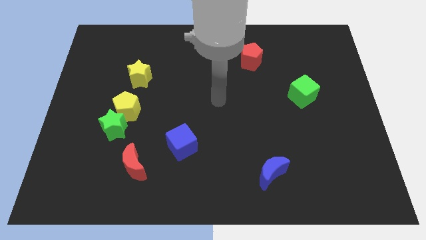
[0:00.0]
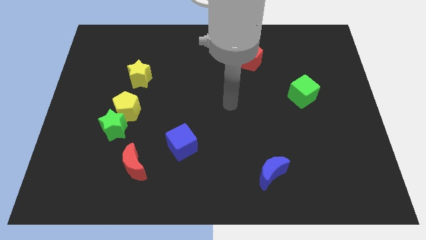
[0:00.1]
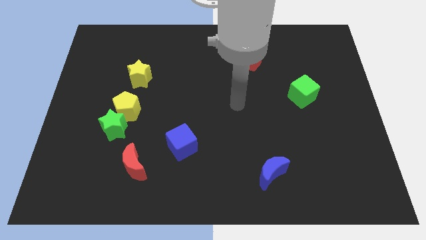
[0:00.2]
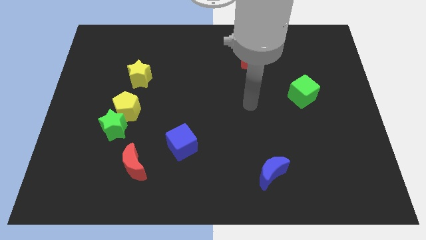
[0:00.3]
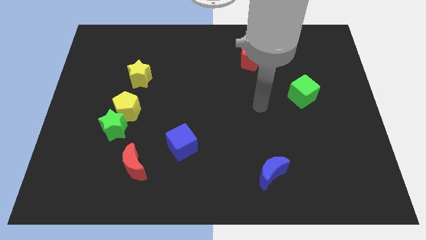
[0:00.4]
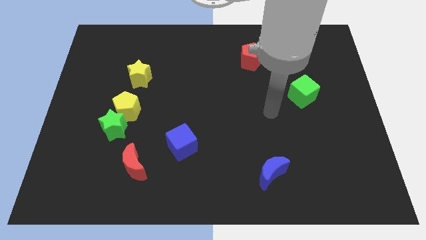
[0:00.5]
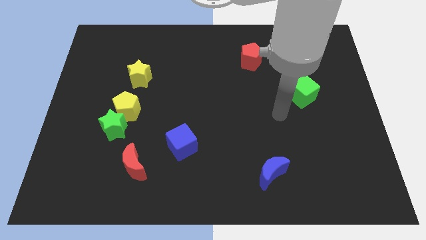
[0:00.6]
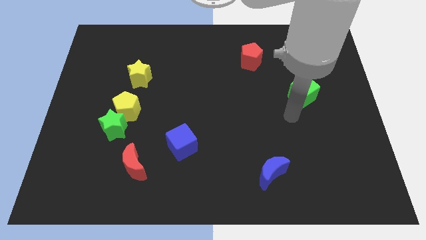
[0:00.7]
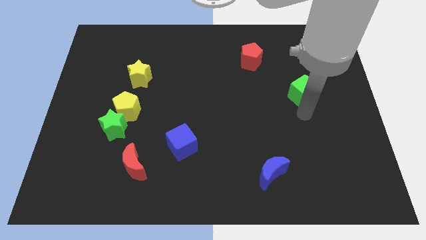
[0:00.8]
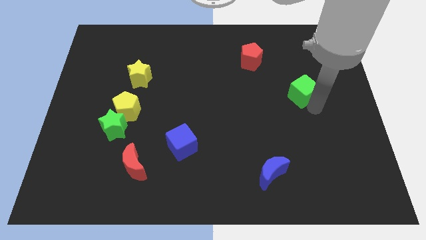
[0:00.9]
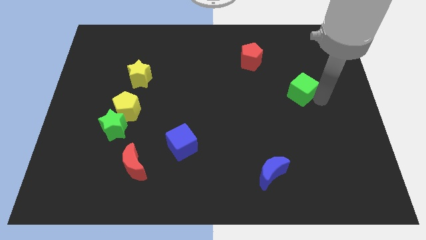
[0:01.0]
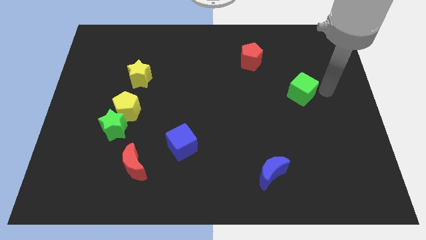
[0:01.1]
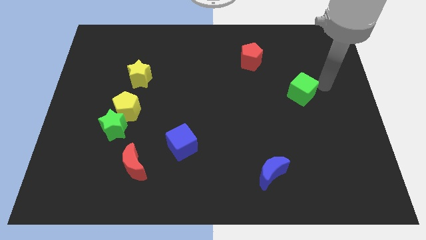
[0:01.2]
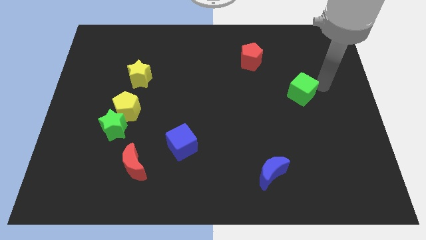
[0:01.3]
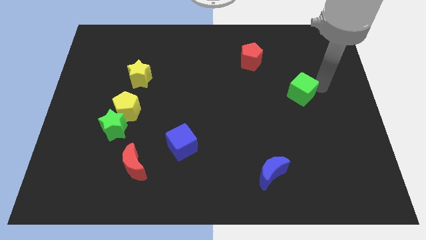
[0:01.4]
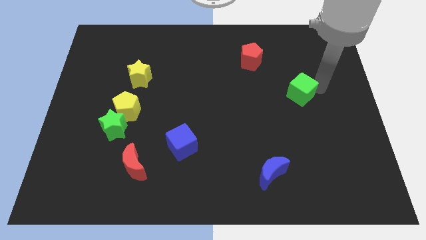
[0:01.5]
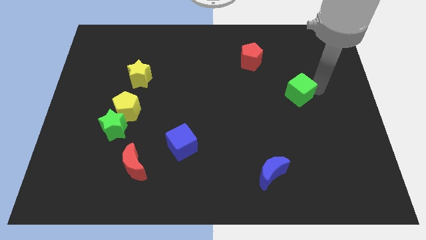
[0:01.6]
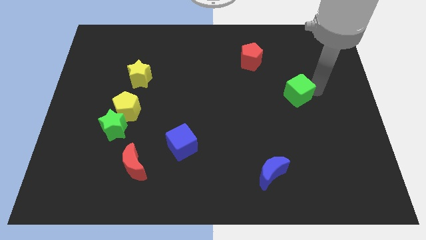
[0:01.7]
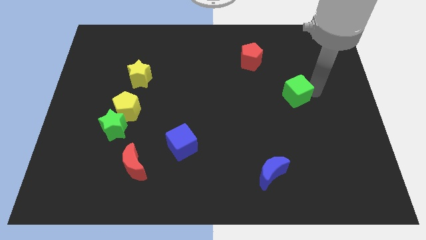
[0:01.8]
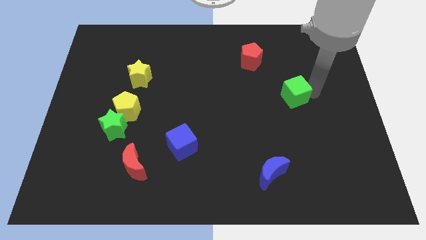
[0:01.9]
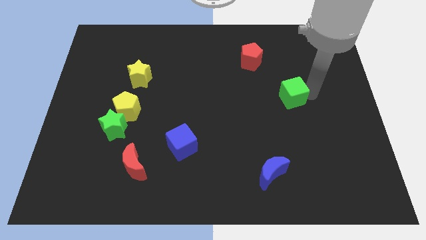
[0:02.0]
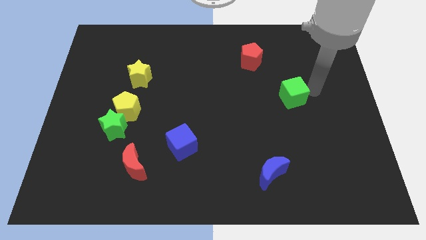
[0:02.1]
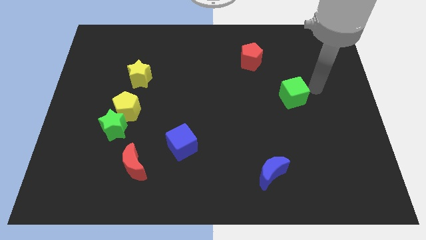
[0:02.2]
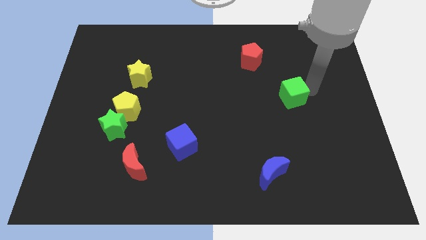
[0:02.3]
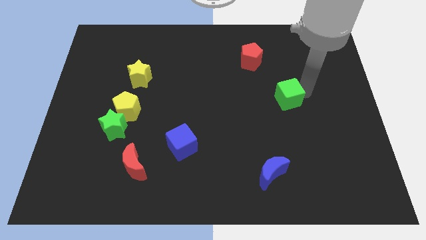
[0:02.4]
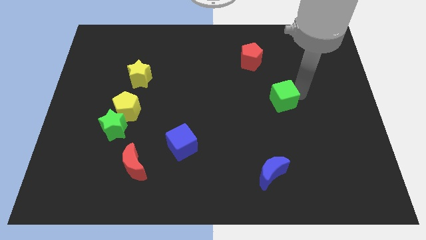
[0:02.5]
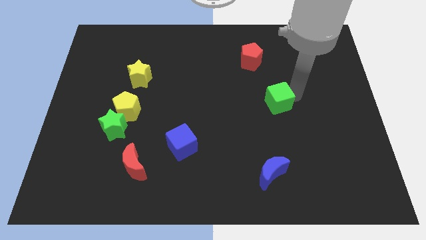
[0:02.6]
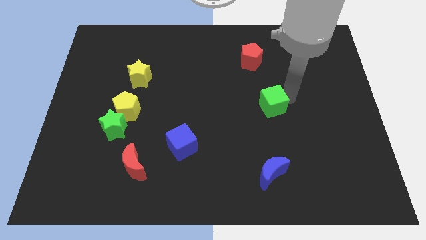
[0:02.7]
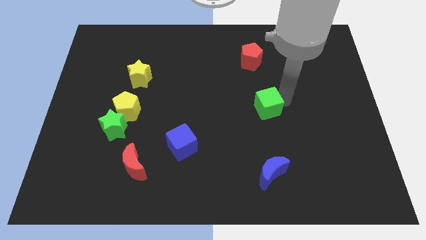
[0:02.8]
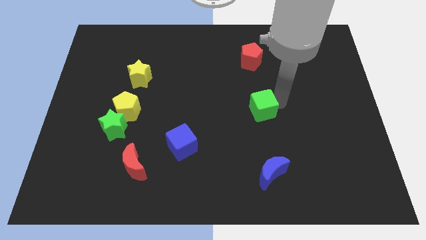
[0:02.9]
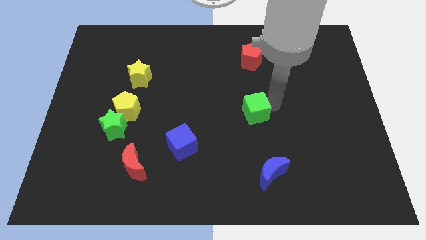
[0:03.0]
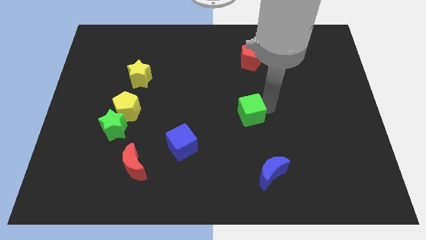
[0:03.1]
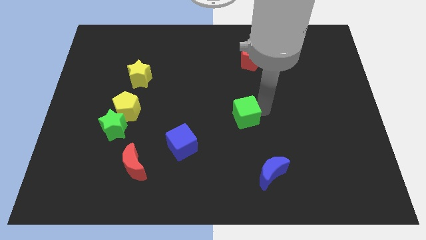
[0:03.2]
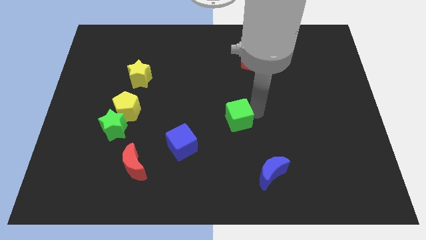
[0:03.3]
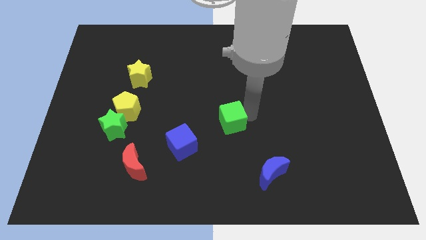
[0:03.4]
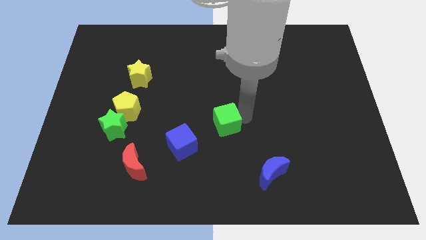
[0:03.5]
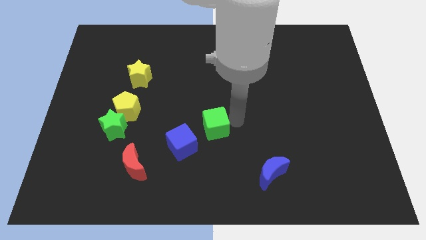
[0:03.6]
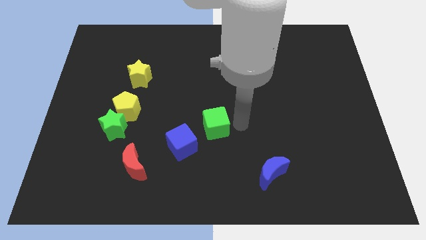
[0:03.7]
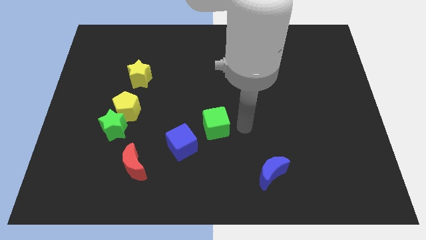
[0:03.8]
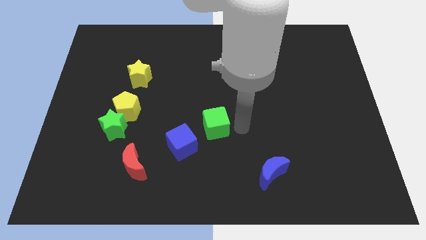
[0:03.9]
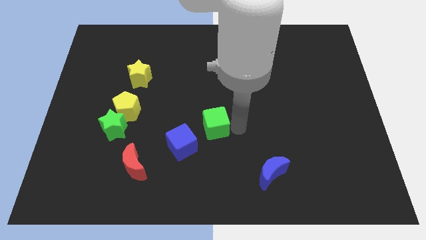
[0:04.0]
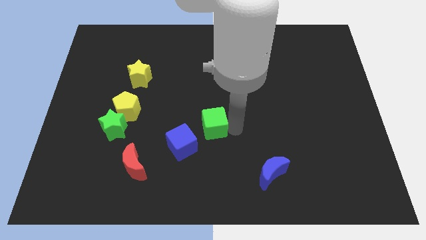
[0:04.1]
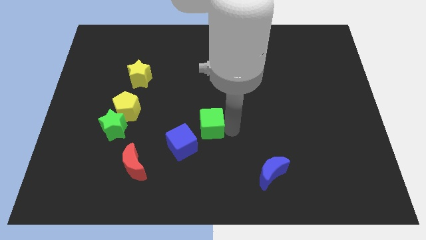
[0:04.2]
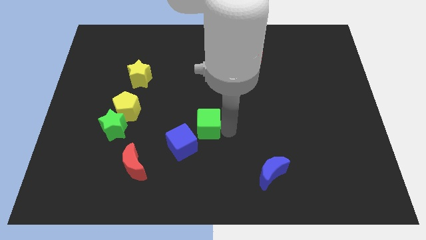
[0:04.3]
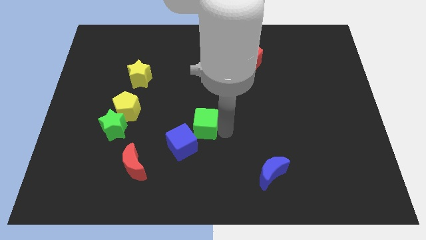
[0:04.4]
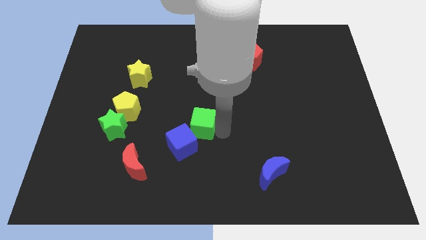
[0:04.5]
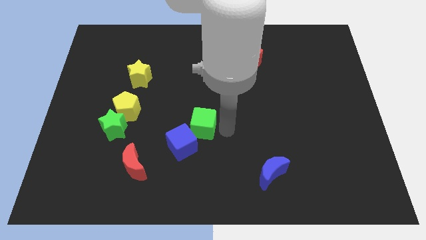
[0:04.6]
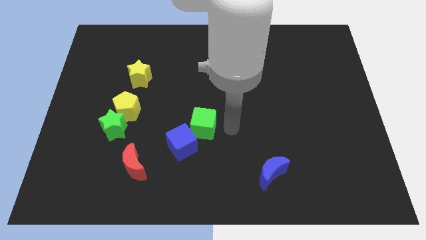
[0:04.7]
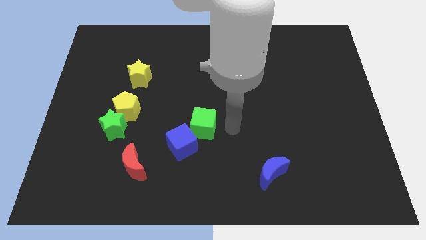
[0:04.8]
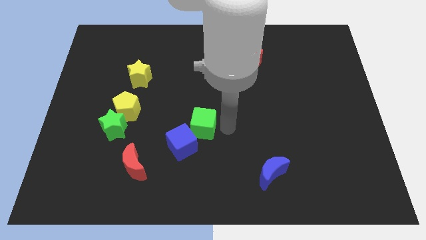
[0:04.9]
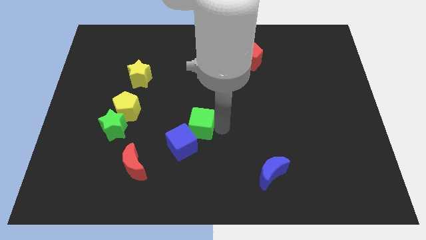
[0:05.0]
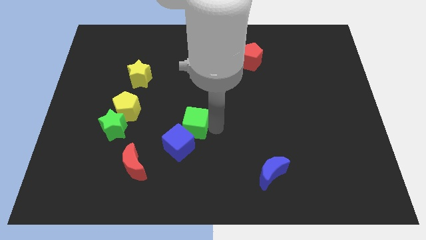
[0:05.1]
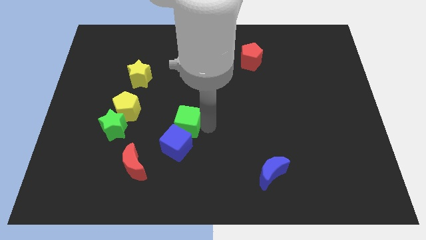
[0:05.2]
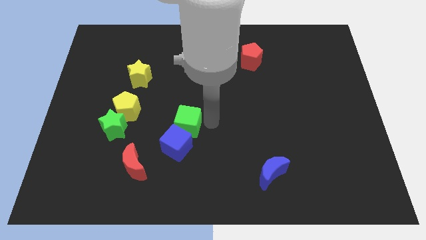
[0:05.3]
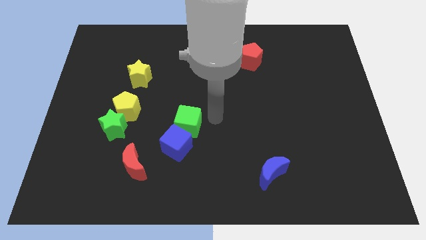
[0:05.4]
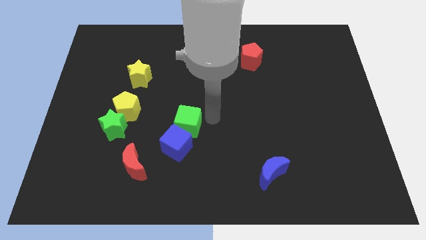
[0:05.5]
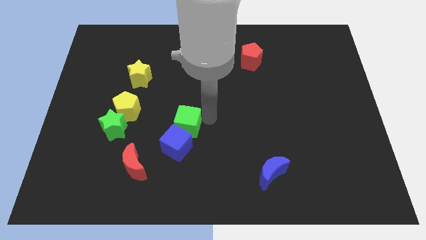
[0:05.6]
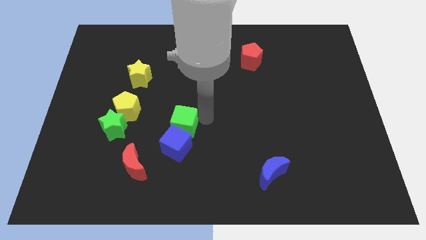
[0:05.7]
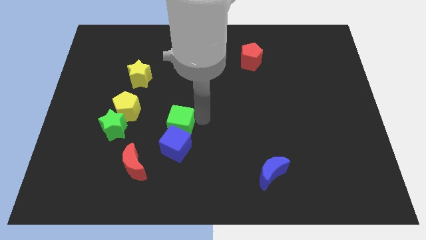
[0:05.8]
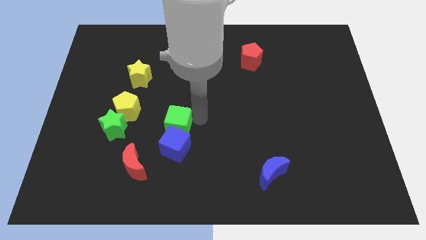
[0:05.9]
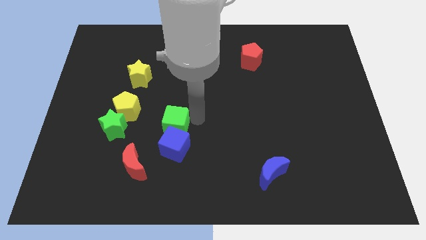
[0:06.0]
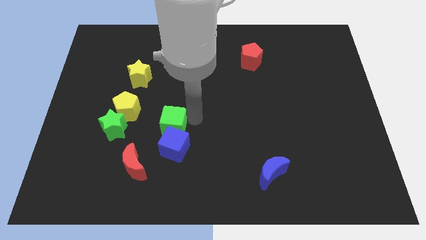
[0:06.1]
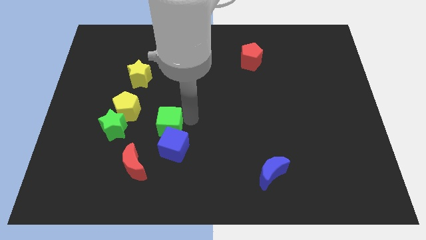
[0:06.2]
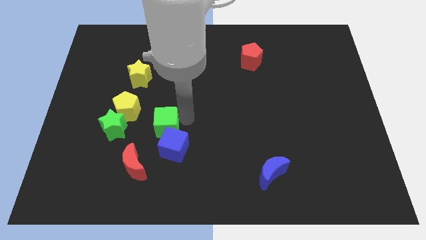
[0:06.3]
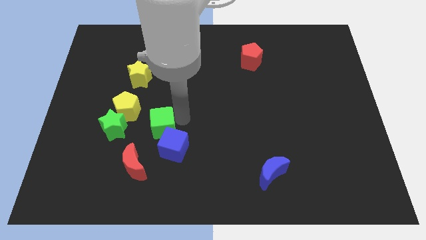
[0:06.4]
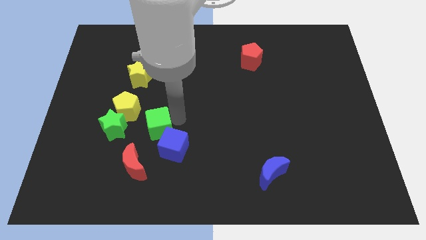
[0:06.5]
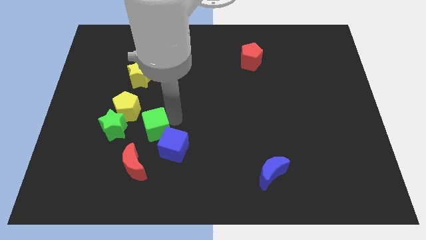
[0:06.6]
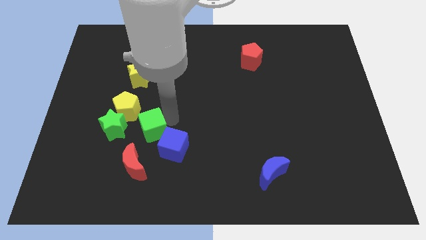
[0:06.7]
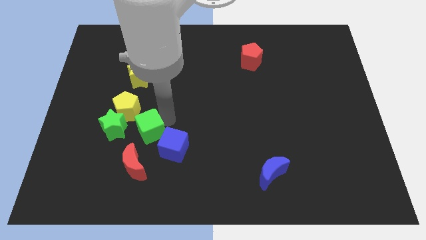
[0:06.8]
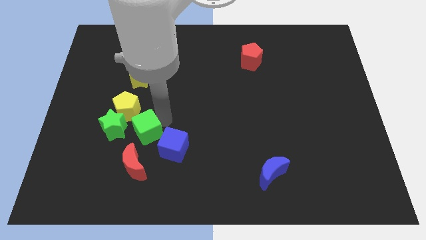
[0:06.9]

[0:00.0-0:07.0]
push the green cube to the bottom right of the green star

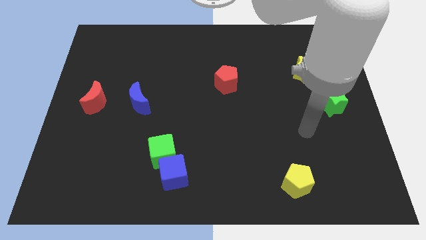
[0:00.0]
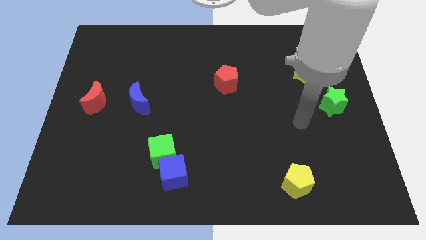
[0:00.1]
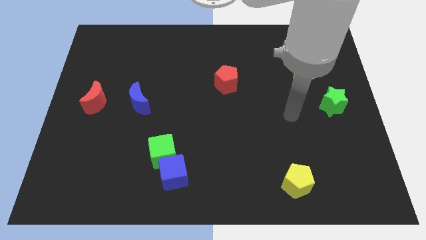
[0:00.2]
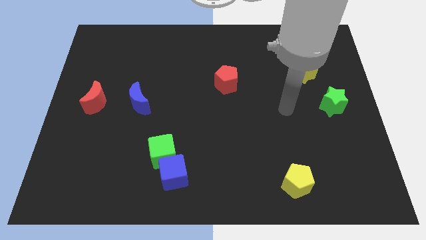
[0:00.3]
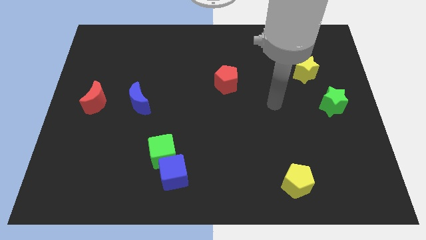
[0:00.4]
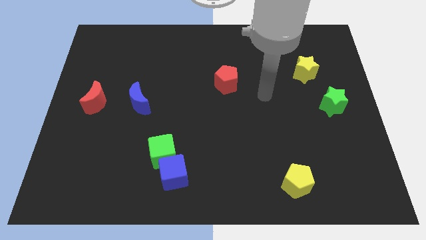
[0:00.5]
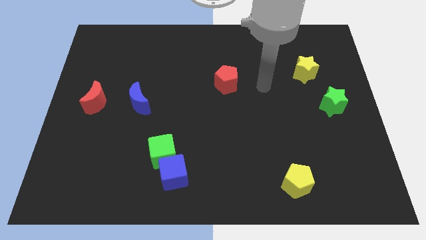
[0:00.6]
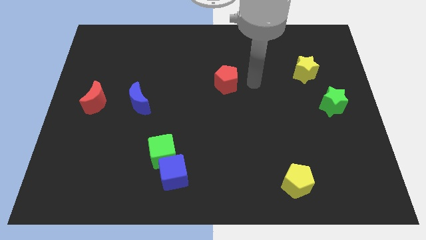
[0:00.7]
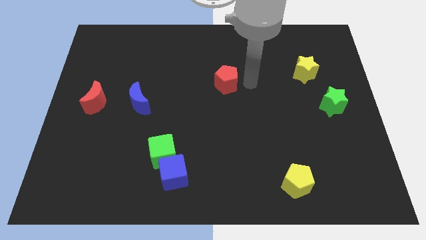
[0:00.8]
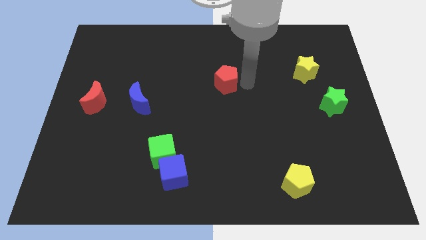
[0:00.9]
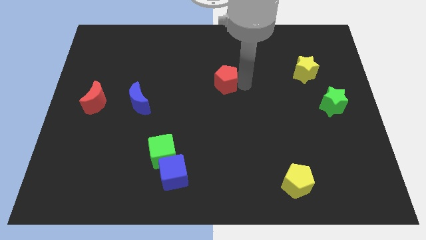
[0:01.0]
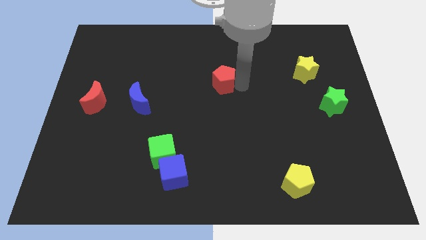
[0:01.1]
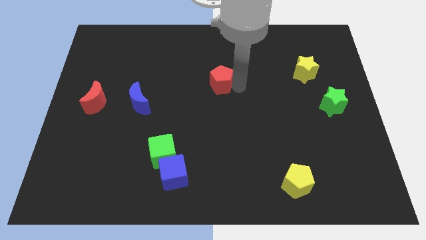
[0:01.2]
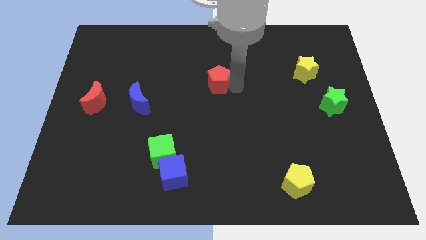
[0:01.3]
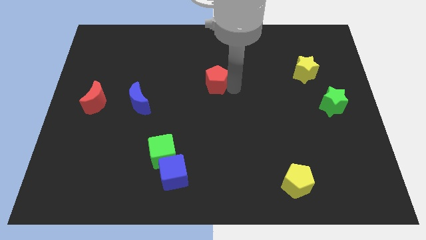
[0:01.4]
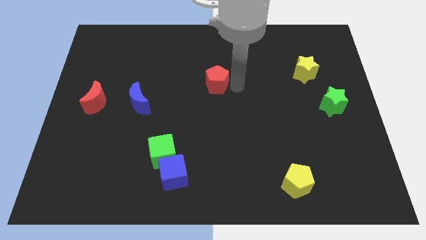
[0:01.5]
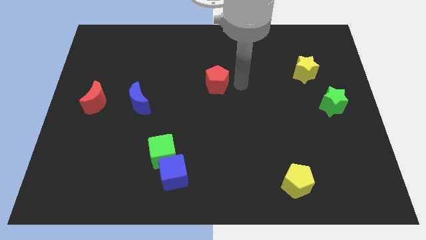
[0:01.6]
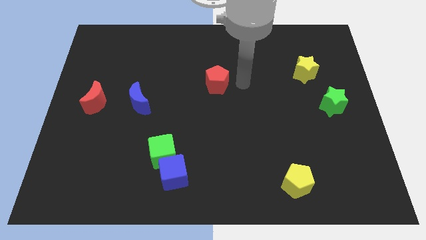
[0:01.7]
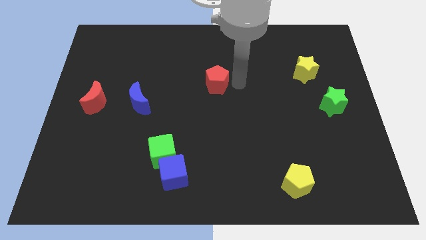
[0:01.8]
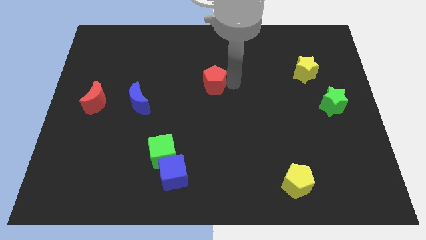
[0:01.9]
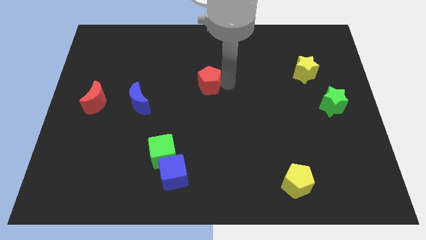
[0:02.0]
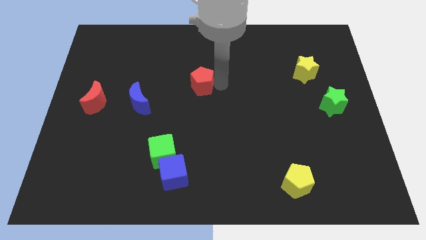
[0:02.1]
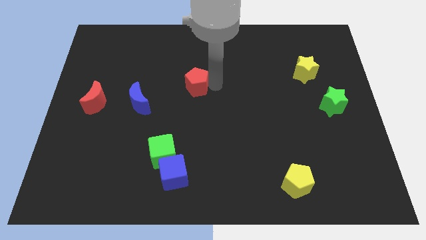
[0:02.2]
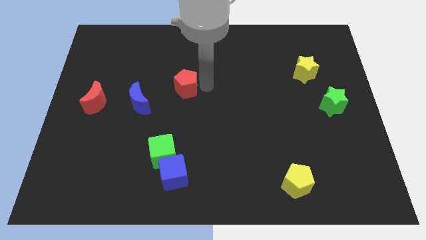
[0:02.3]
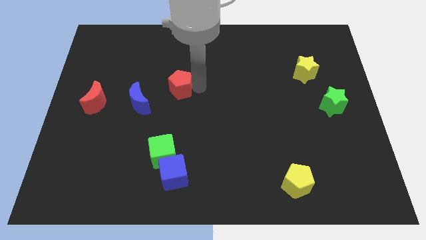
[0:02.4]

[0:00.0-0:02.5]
put the red pentagon diagonally up and to the right of the blue moon
